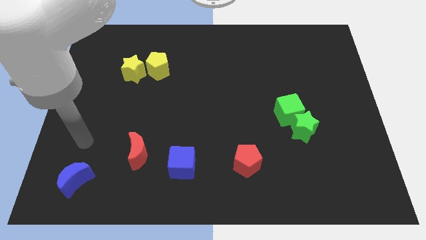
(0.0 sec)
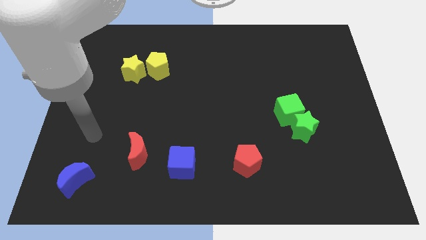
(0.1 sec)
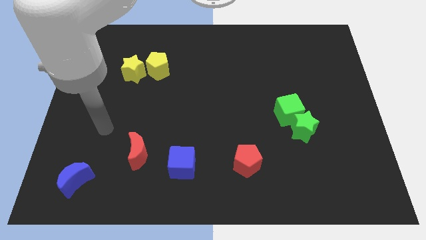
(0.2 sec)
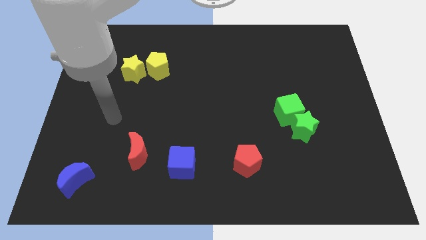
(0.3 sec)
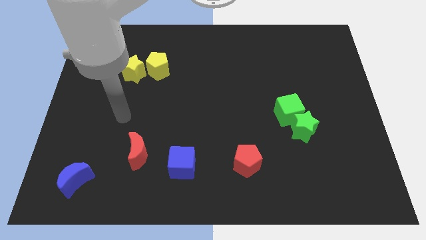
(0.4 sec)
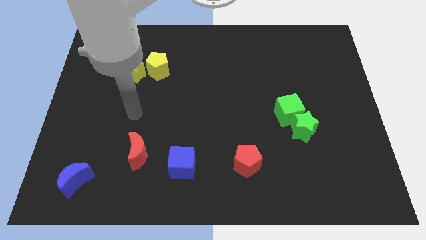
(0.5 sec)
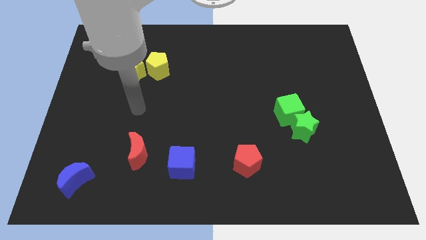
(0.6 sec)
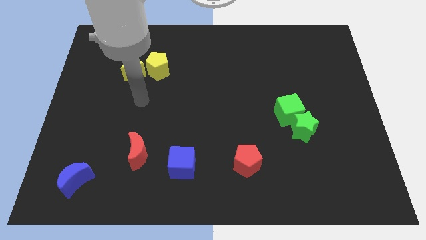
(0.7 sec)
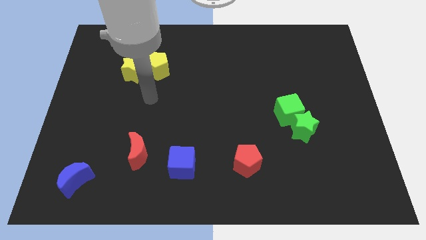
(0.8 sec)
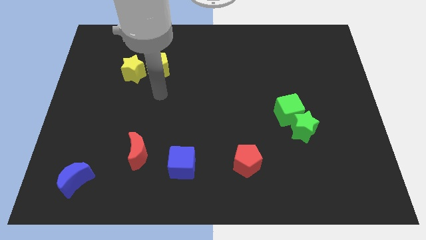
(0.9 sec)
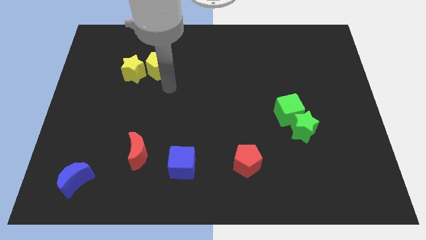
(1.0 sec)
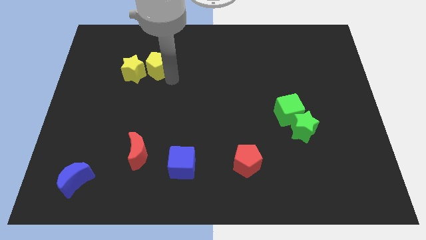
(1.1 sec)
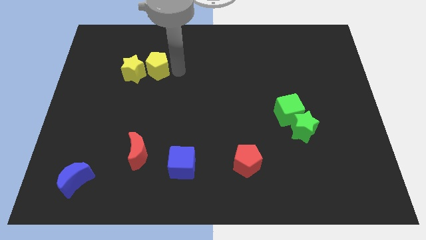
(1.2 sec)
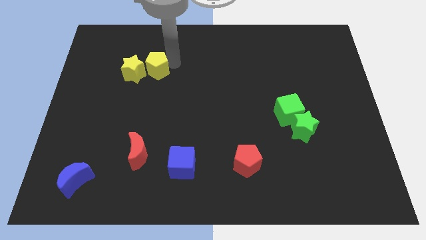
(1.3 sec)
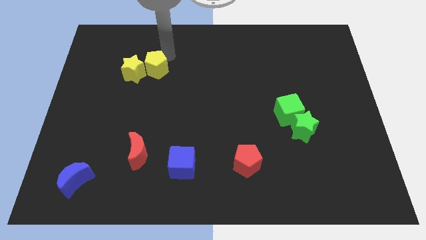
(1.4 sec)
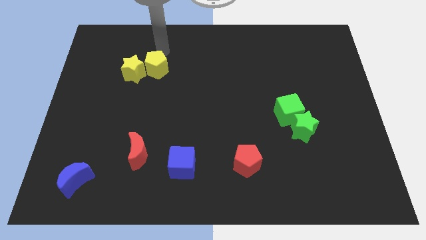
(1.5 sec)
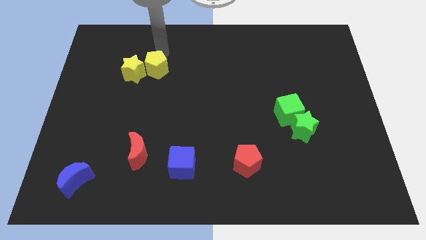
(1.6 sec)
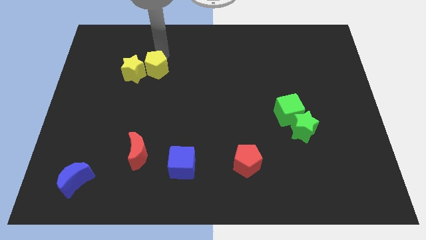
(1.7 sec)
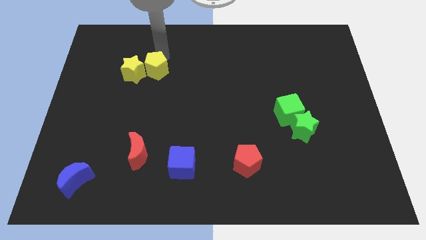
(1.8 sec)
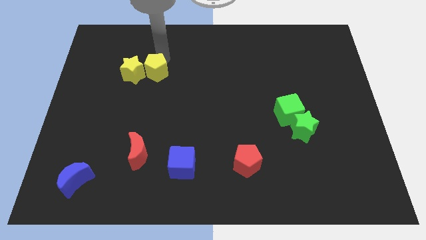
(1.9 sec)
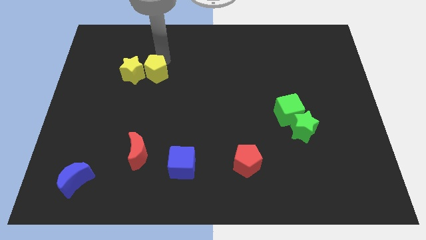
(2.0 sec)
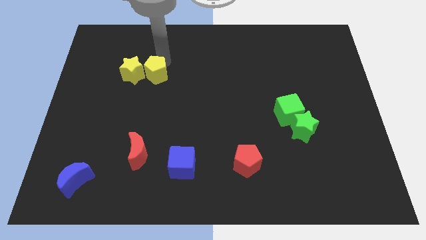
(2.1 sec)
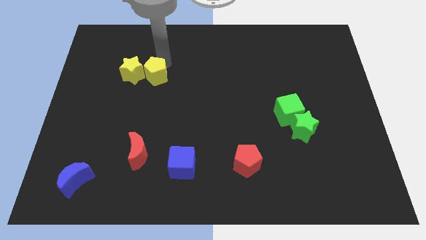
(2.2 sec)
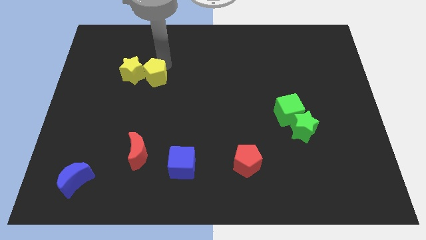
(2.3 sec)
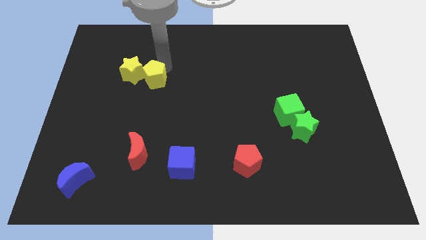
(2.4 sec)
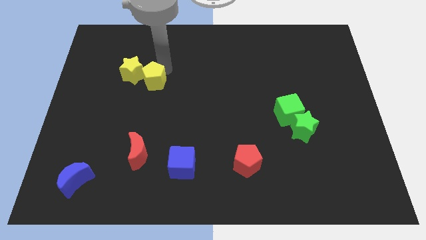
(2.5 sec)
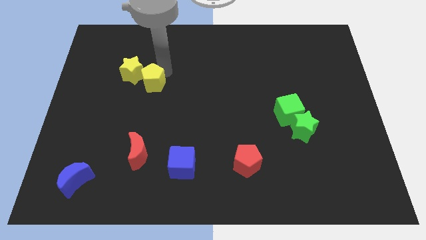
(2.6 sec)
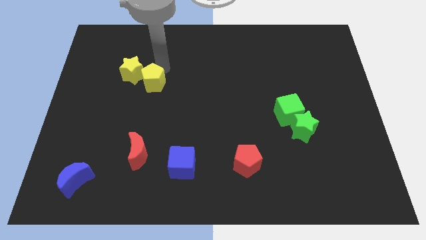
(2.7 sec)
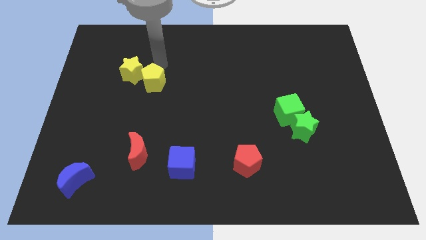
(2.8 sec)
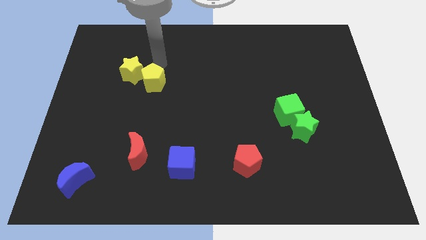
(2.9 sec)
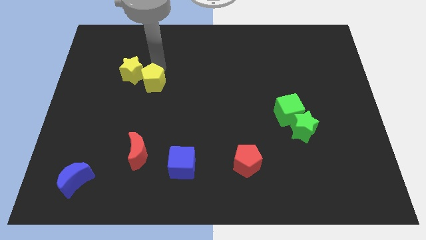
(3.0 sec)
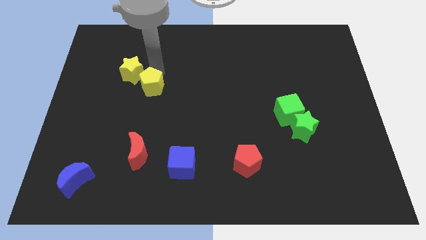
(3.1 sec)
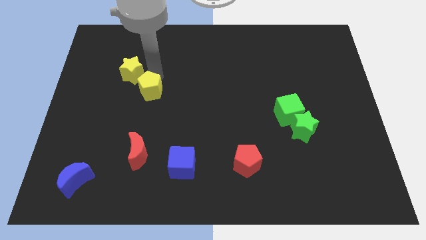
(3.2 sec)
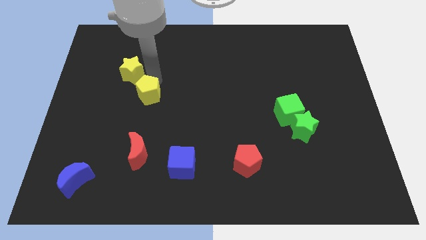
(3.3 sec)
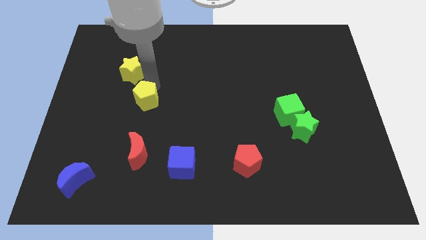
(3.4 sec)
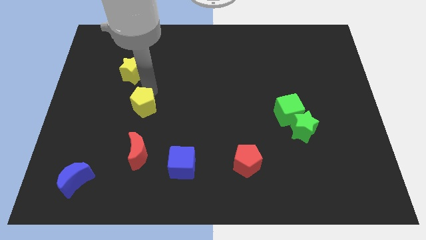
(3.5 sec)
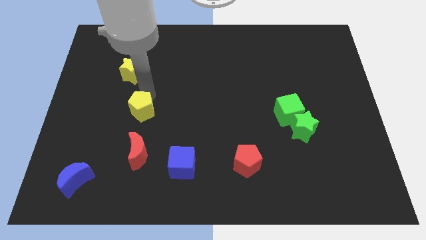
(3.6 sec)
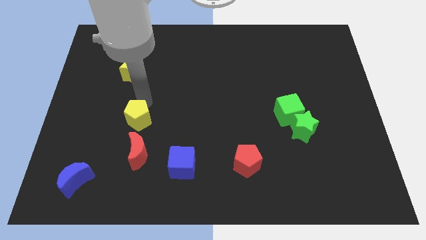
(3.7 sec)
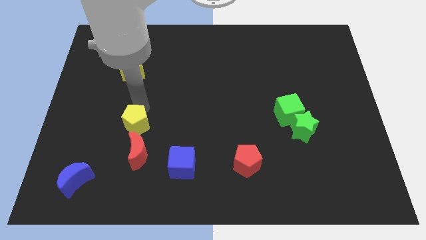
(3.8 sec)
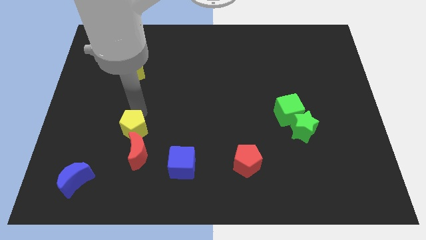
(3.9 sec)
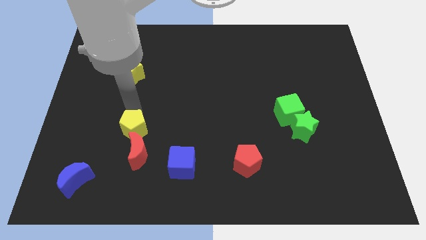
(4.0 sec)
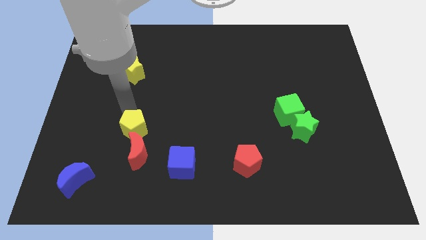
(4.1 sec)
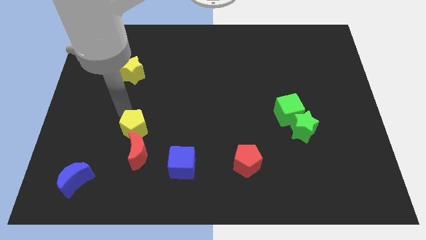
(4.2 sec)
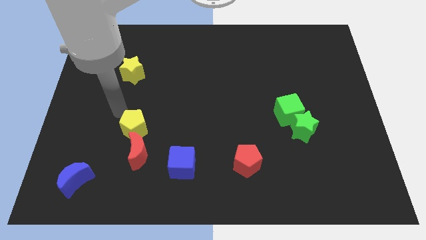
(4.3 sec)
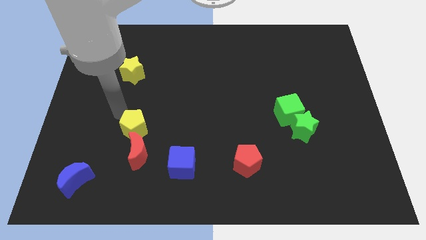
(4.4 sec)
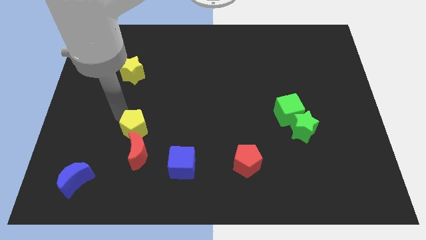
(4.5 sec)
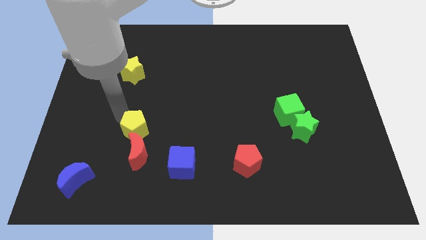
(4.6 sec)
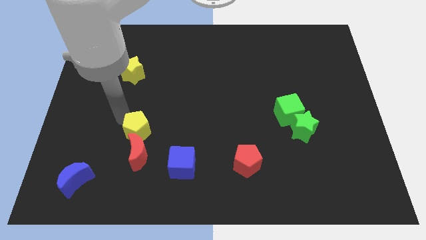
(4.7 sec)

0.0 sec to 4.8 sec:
put the yellow pentagon to the red moon

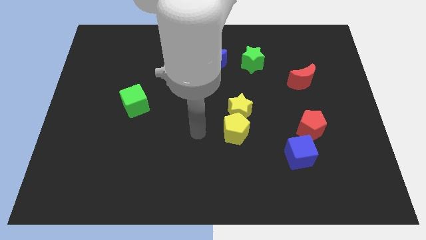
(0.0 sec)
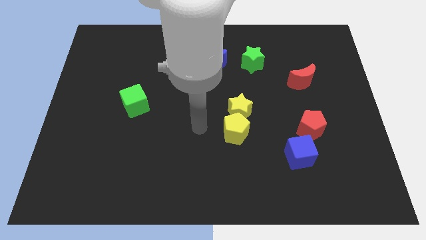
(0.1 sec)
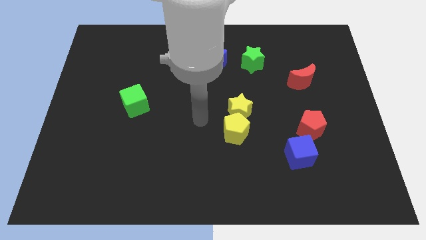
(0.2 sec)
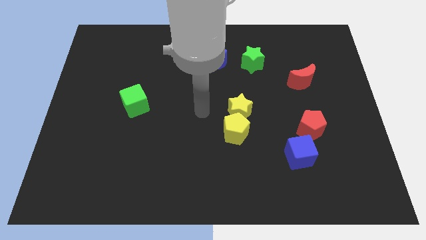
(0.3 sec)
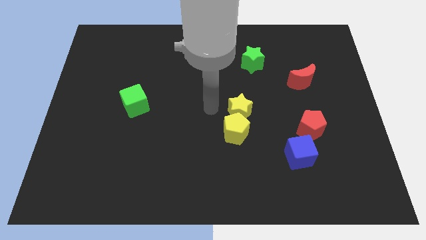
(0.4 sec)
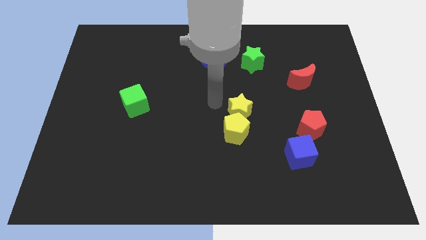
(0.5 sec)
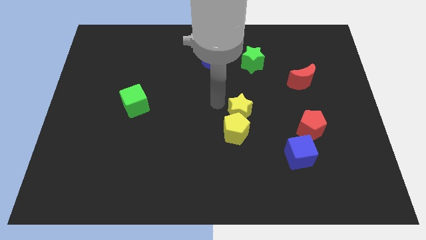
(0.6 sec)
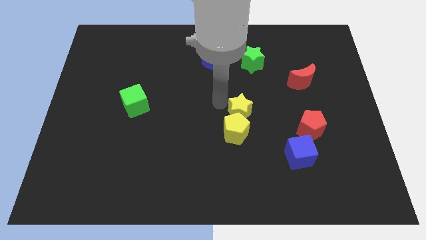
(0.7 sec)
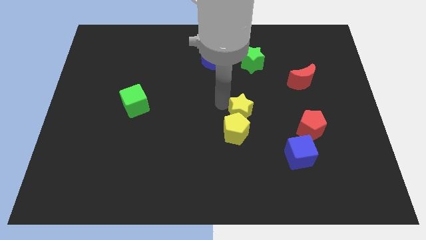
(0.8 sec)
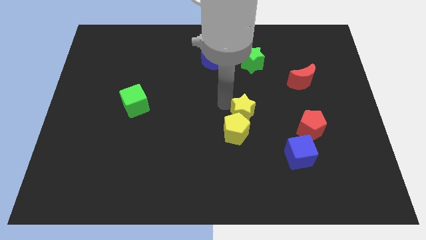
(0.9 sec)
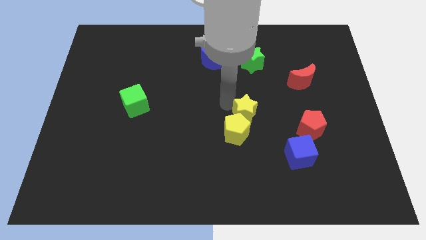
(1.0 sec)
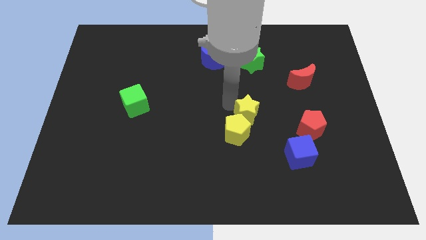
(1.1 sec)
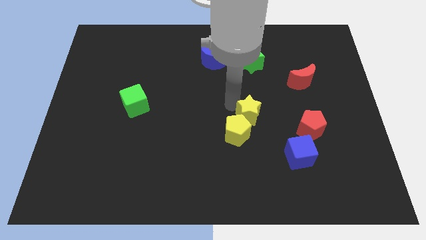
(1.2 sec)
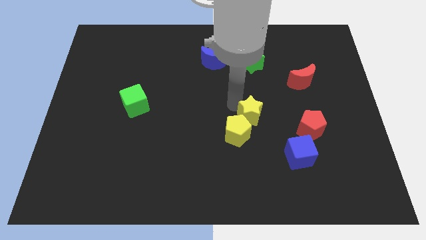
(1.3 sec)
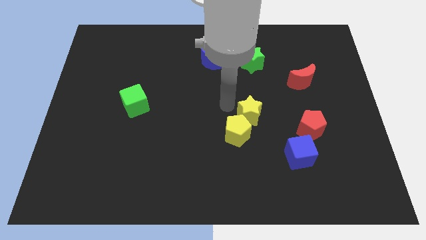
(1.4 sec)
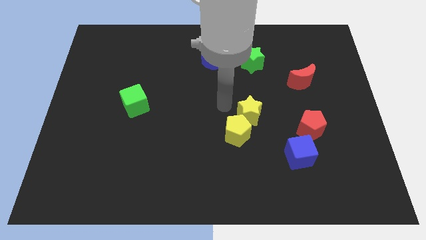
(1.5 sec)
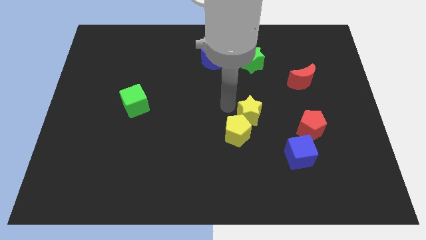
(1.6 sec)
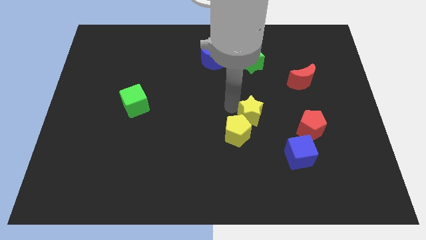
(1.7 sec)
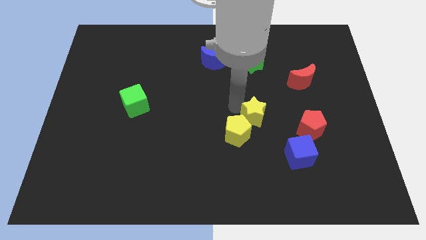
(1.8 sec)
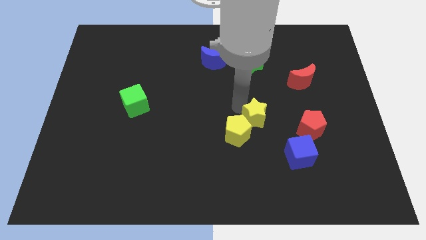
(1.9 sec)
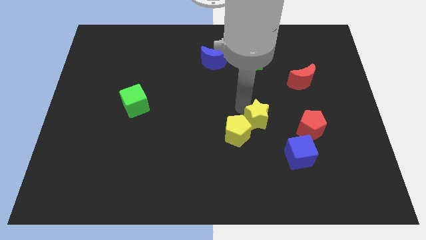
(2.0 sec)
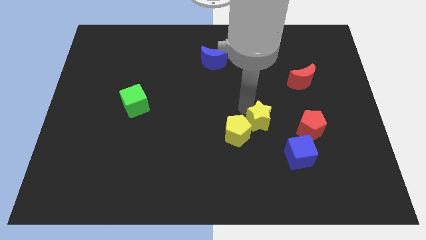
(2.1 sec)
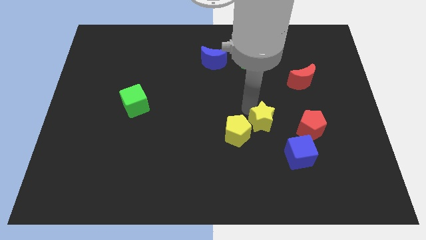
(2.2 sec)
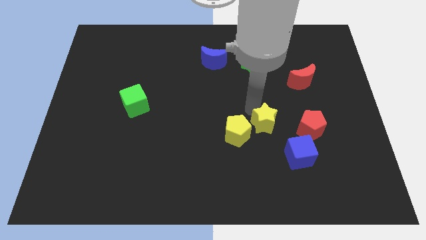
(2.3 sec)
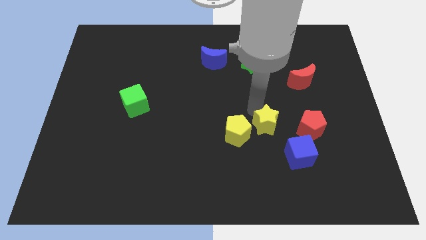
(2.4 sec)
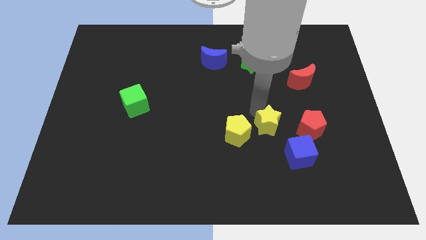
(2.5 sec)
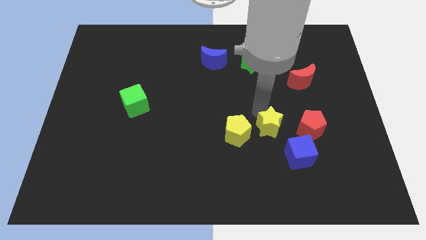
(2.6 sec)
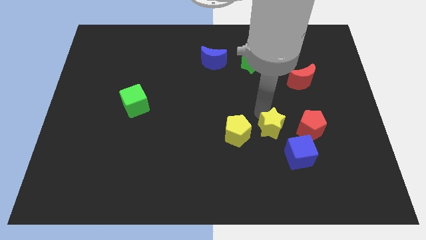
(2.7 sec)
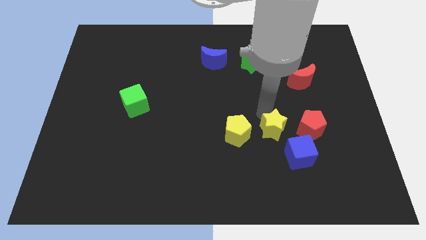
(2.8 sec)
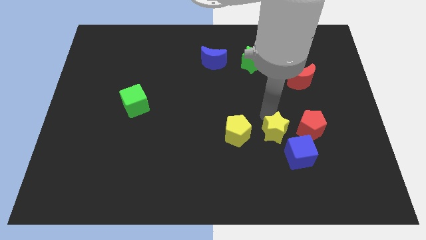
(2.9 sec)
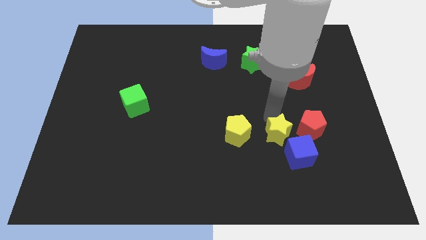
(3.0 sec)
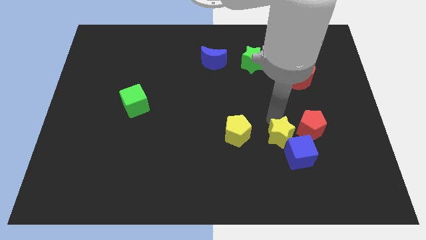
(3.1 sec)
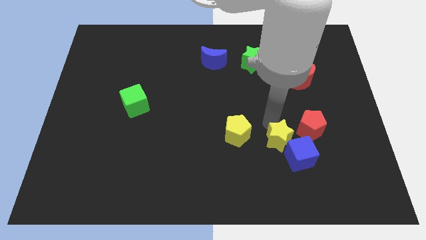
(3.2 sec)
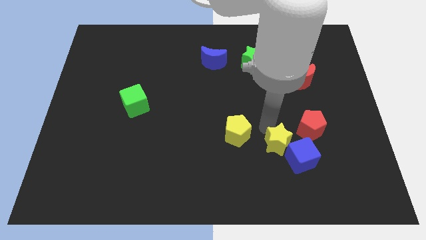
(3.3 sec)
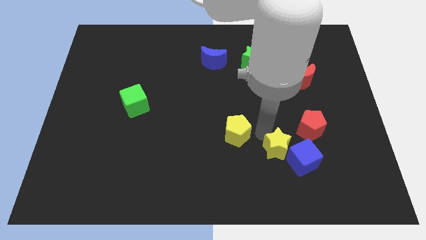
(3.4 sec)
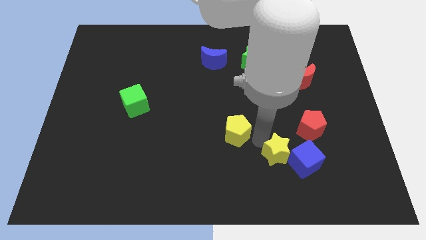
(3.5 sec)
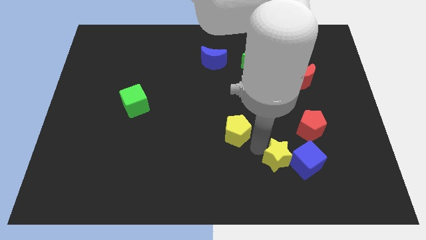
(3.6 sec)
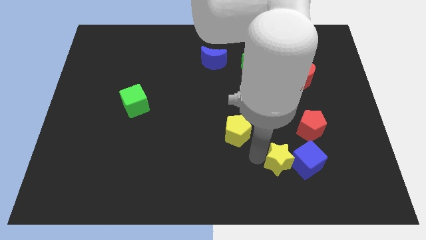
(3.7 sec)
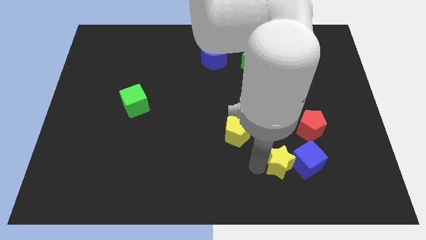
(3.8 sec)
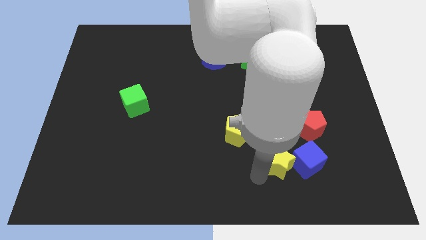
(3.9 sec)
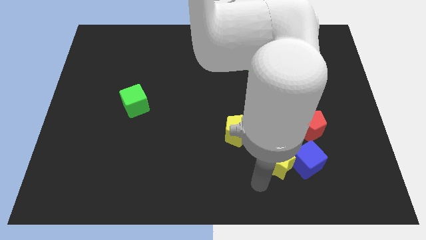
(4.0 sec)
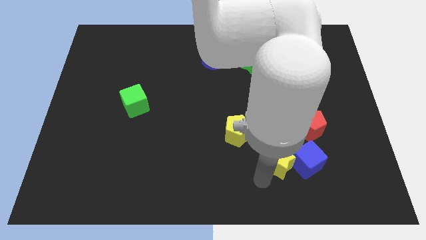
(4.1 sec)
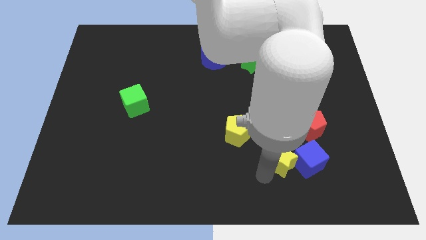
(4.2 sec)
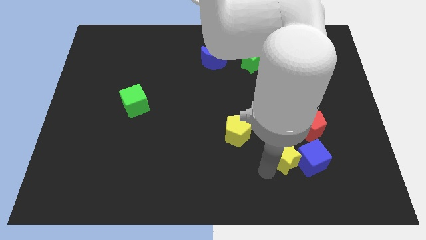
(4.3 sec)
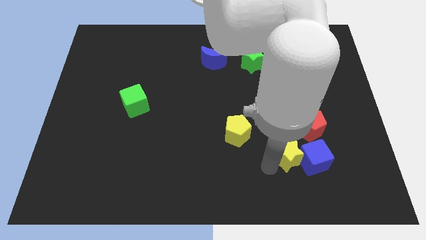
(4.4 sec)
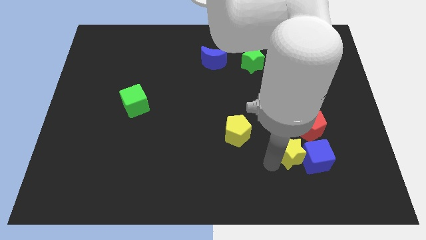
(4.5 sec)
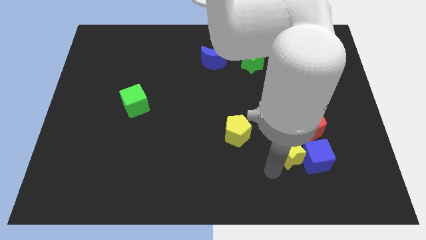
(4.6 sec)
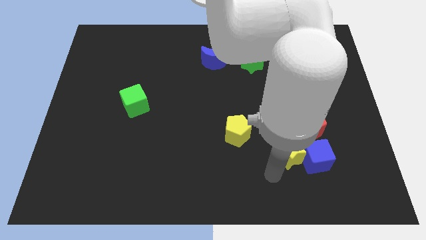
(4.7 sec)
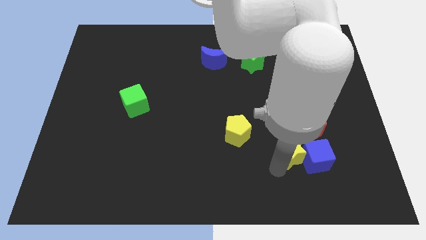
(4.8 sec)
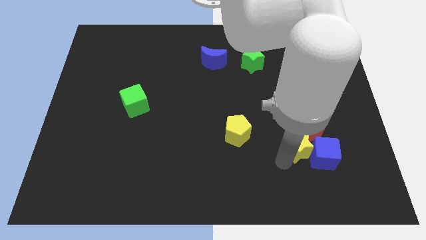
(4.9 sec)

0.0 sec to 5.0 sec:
move the yellow star next to the red pentagon
